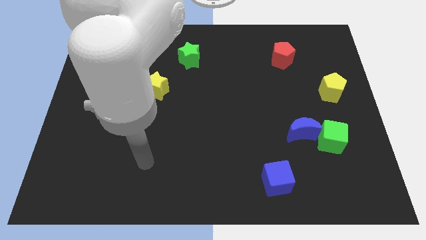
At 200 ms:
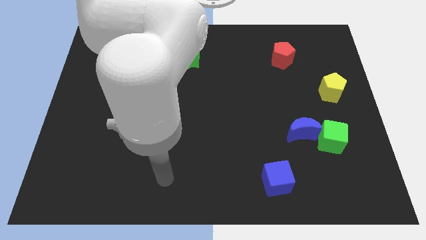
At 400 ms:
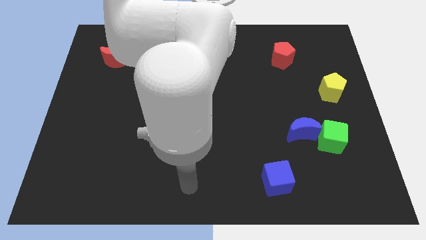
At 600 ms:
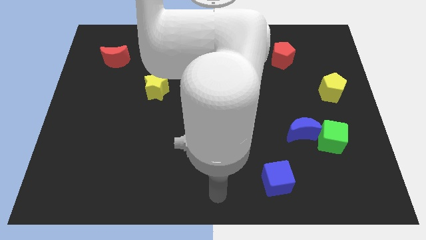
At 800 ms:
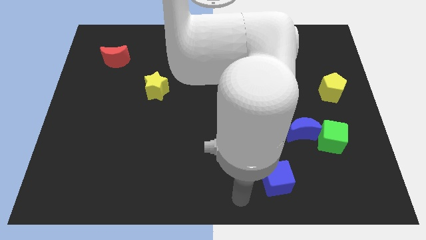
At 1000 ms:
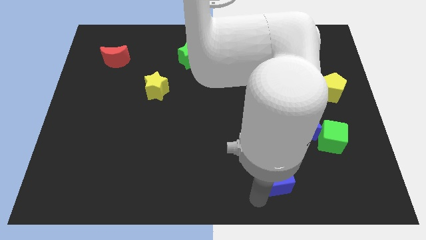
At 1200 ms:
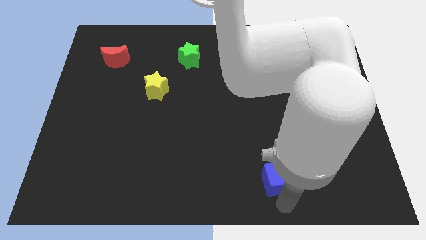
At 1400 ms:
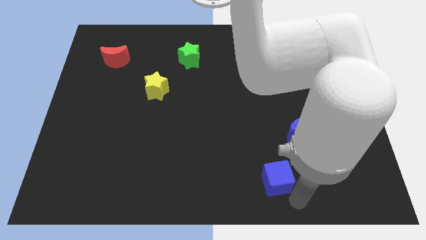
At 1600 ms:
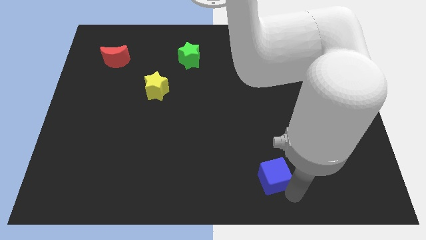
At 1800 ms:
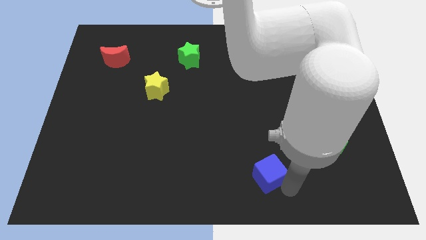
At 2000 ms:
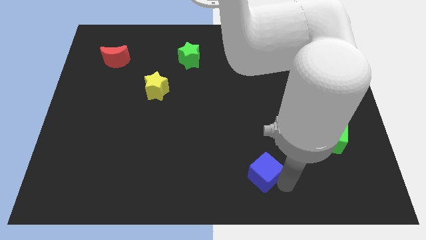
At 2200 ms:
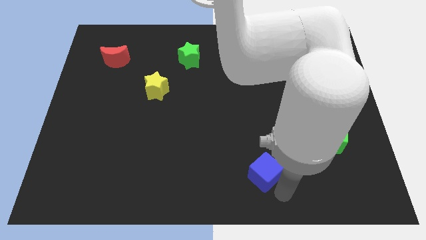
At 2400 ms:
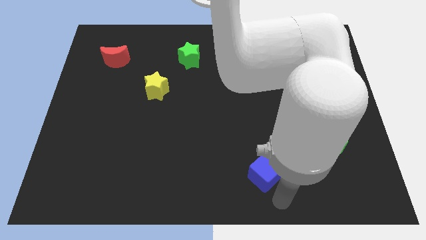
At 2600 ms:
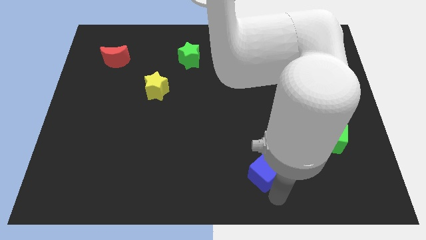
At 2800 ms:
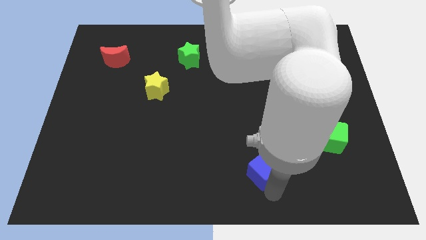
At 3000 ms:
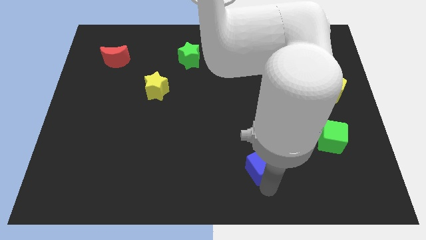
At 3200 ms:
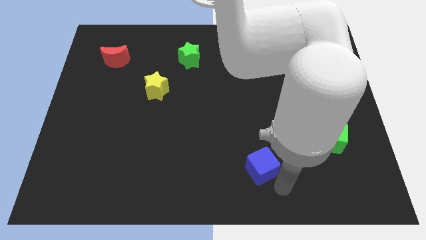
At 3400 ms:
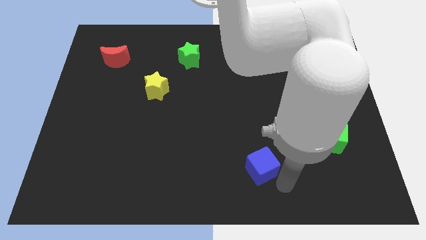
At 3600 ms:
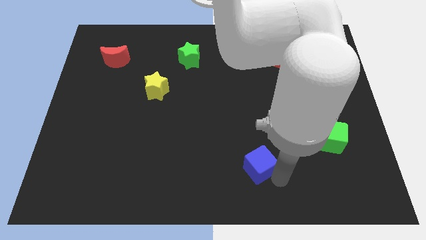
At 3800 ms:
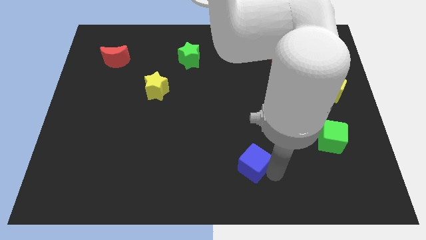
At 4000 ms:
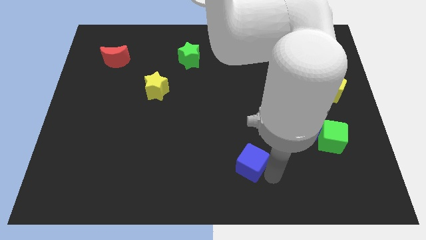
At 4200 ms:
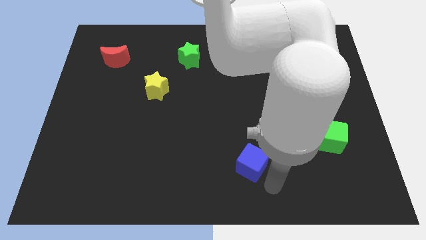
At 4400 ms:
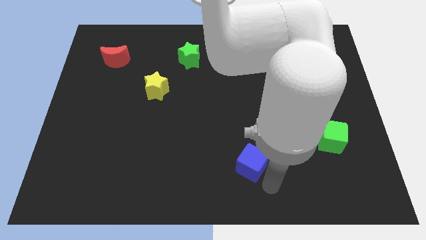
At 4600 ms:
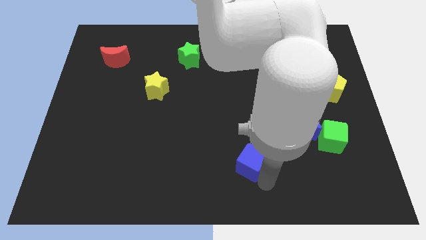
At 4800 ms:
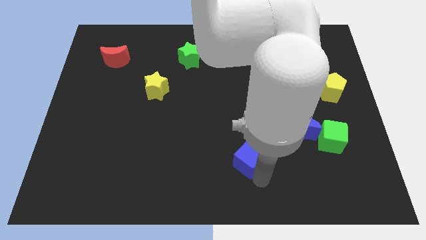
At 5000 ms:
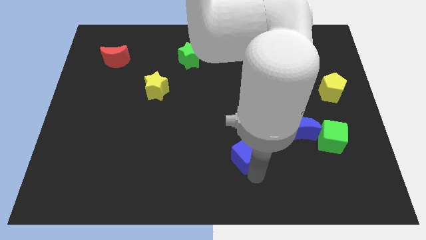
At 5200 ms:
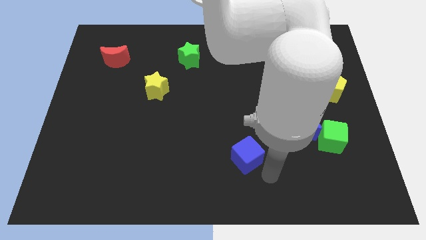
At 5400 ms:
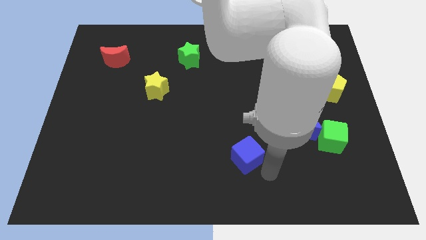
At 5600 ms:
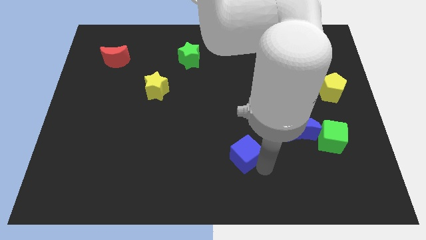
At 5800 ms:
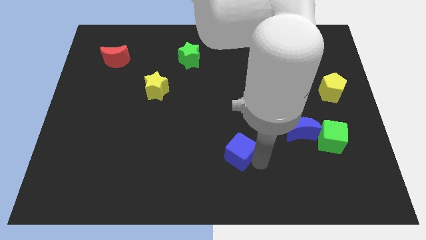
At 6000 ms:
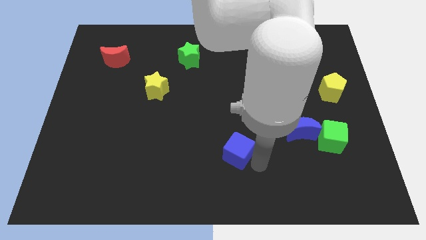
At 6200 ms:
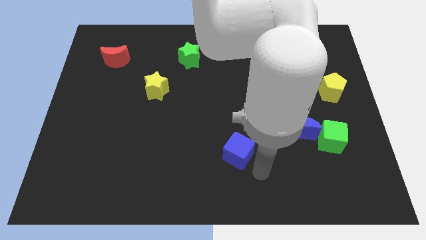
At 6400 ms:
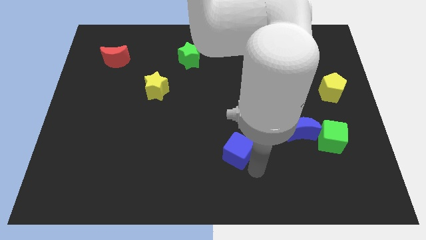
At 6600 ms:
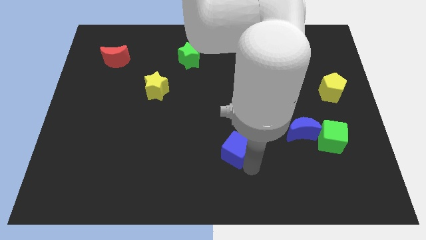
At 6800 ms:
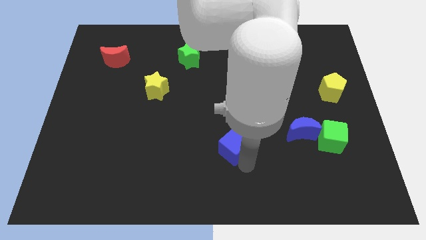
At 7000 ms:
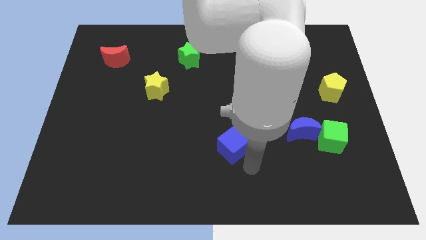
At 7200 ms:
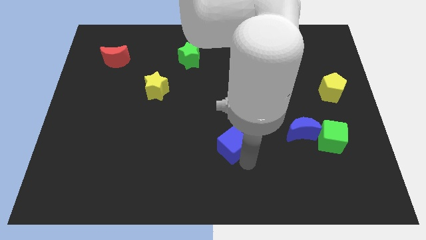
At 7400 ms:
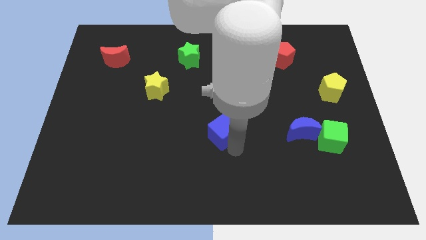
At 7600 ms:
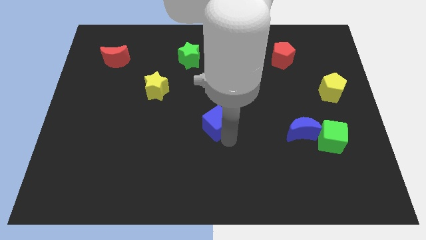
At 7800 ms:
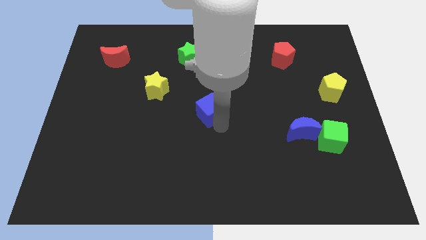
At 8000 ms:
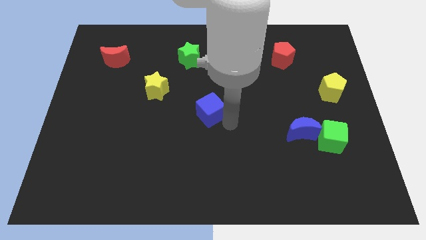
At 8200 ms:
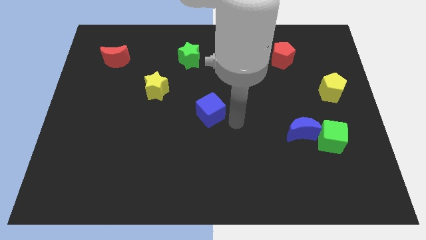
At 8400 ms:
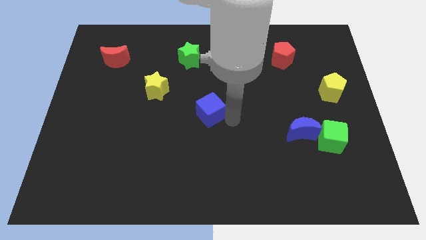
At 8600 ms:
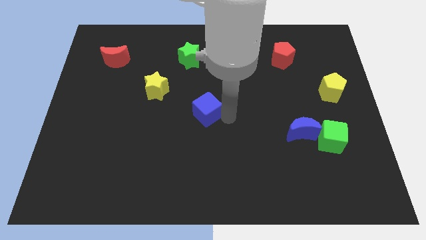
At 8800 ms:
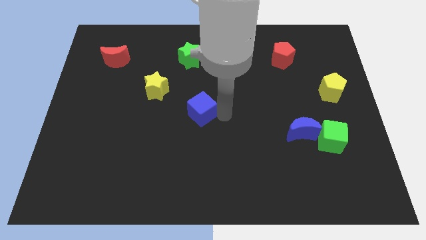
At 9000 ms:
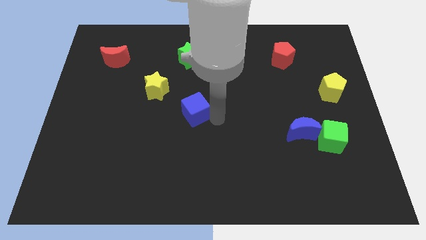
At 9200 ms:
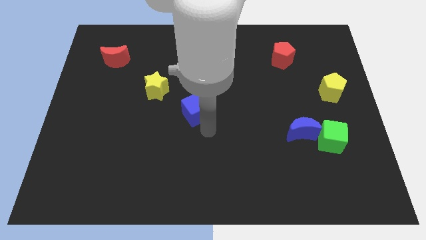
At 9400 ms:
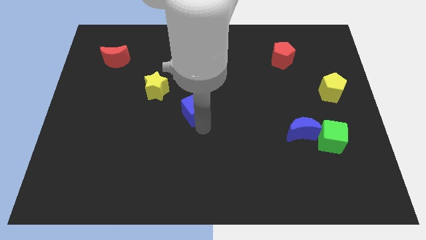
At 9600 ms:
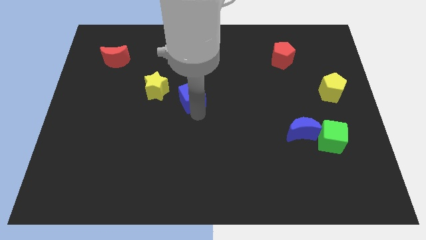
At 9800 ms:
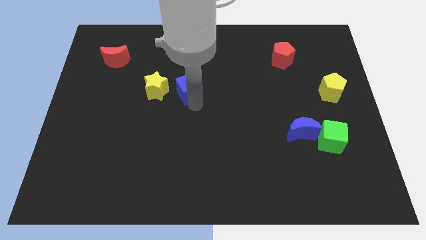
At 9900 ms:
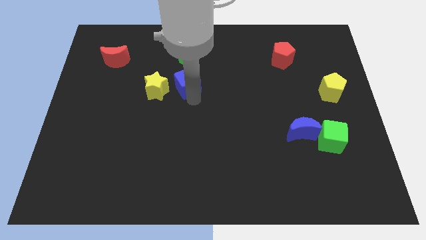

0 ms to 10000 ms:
put the blue cube to the top right side of the yellow star

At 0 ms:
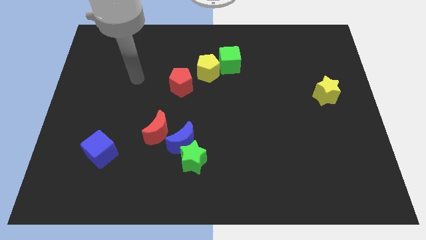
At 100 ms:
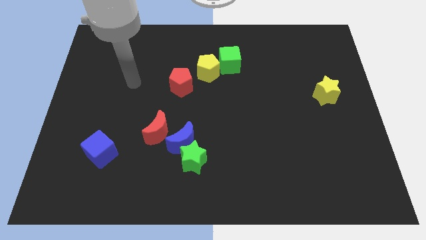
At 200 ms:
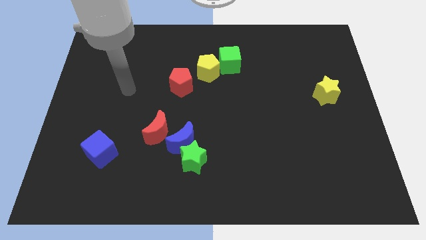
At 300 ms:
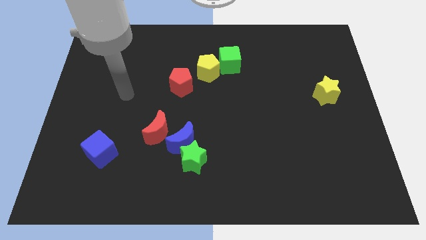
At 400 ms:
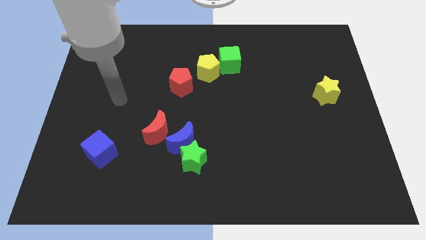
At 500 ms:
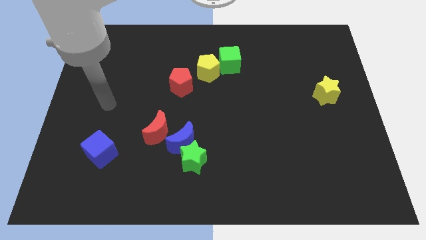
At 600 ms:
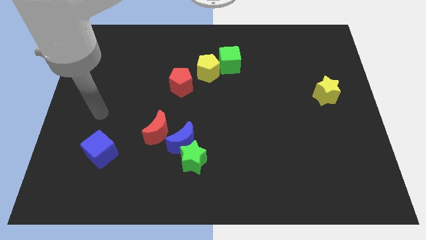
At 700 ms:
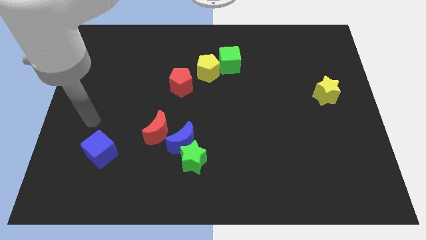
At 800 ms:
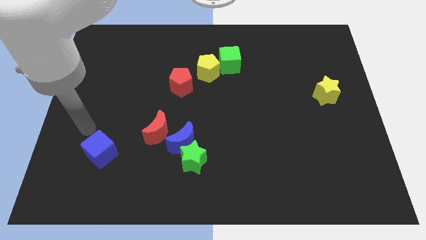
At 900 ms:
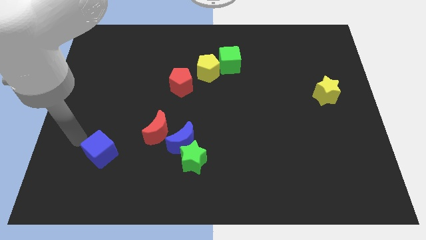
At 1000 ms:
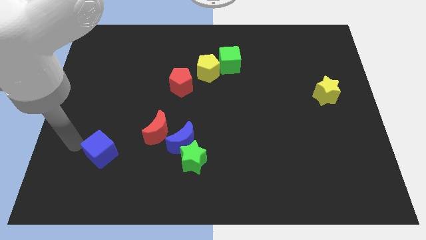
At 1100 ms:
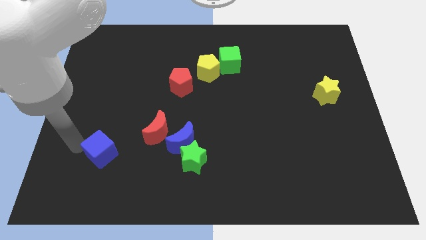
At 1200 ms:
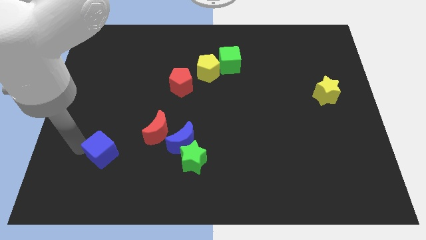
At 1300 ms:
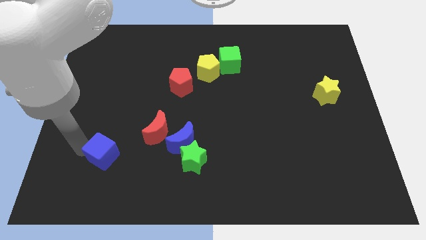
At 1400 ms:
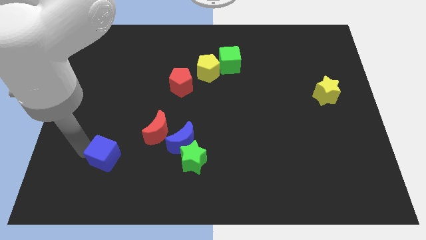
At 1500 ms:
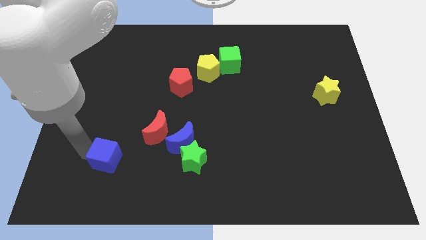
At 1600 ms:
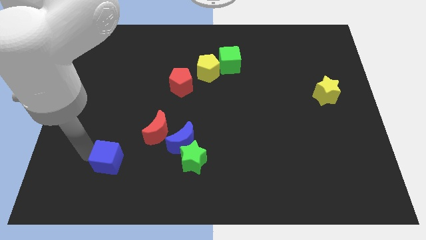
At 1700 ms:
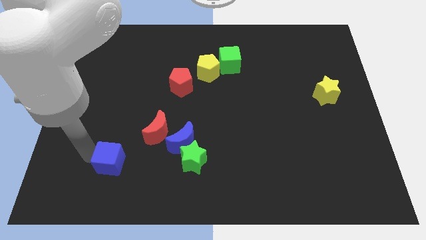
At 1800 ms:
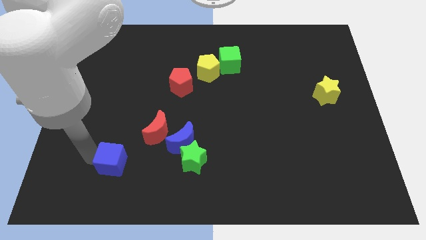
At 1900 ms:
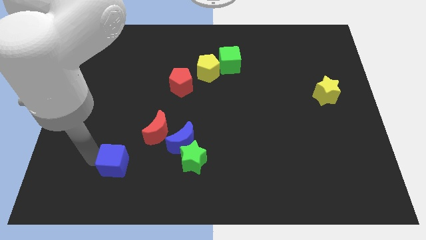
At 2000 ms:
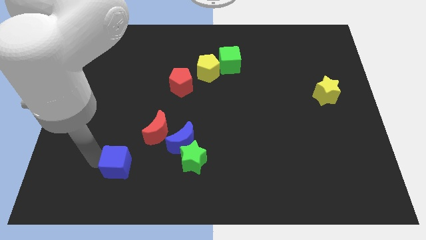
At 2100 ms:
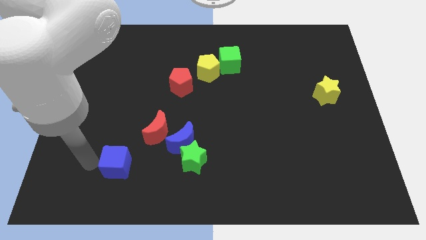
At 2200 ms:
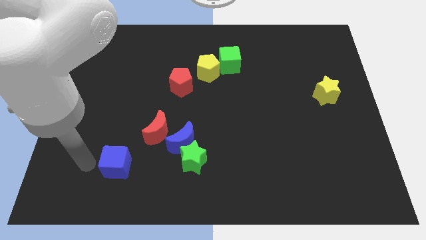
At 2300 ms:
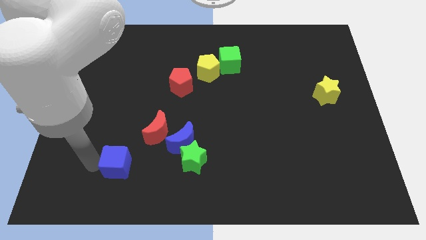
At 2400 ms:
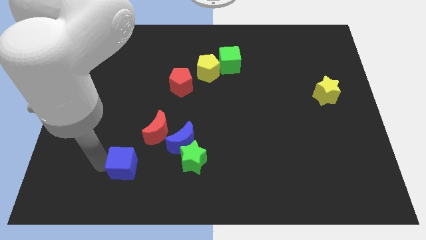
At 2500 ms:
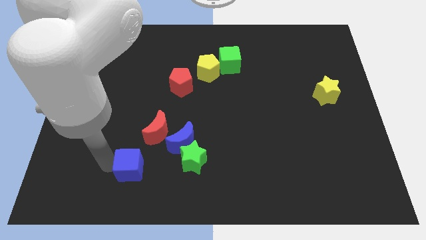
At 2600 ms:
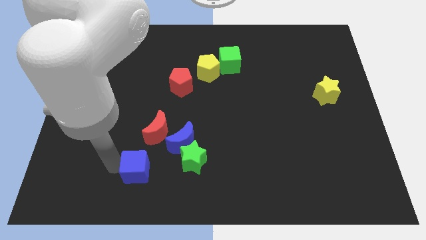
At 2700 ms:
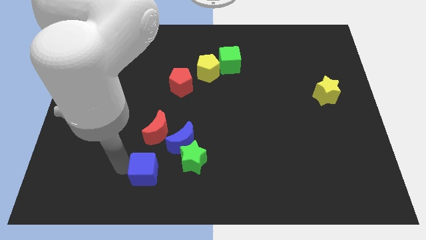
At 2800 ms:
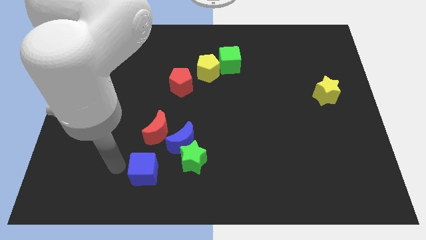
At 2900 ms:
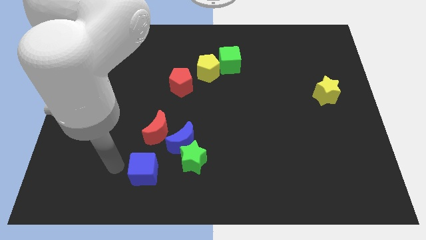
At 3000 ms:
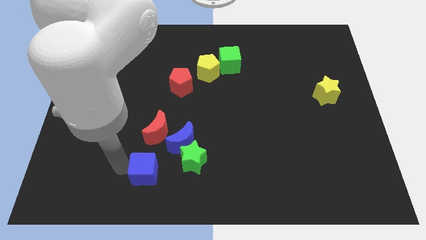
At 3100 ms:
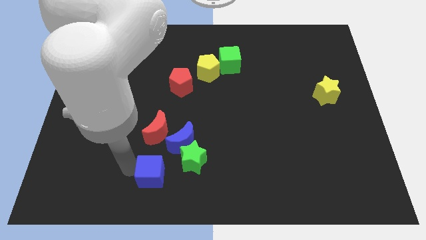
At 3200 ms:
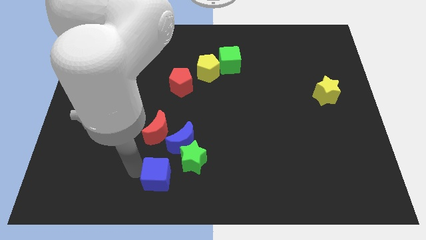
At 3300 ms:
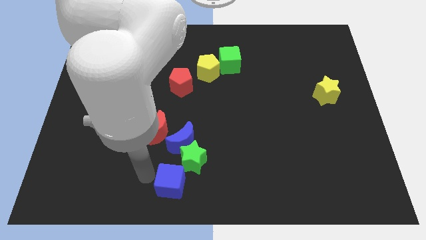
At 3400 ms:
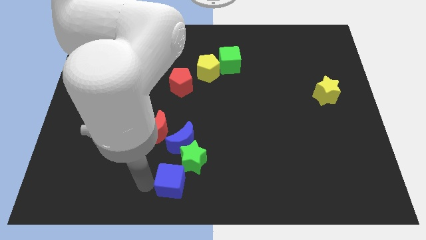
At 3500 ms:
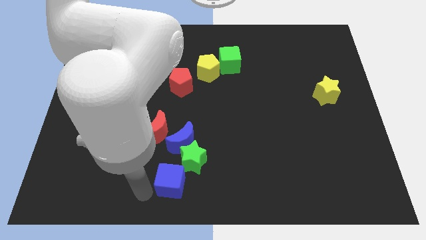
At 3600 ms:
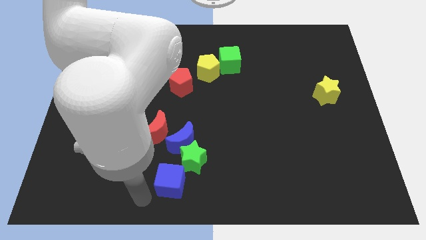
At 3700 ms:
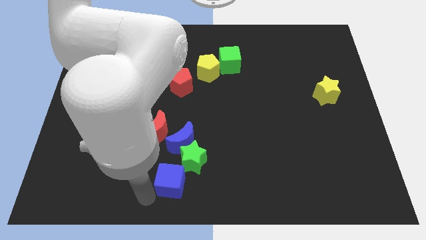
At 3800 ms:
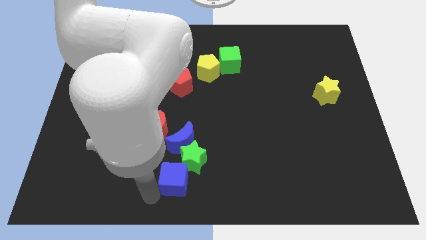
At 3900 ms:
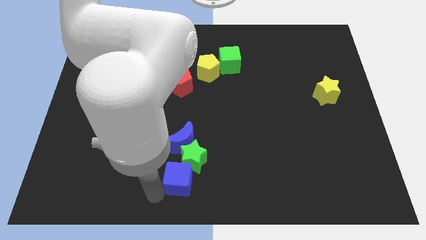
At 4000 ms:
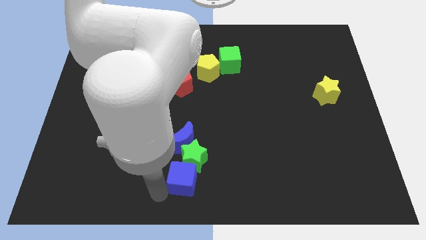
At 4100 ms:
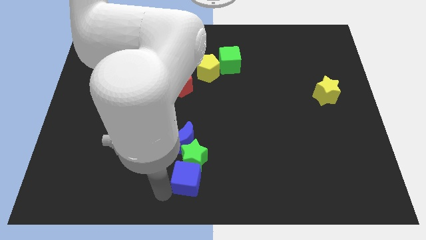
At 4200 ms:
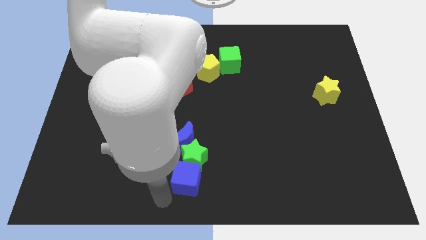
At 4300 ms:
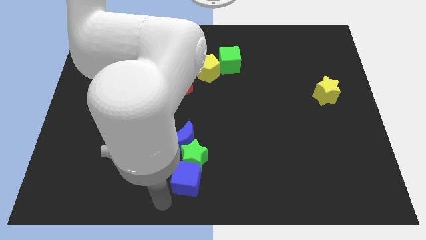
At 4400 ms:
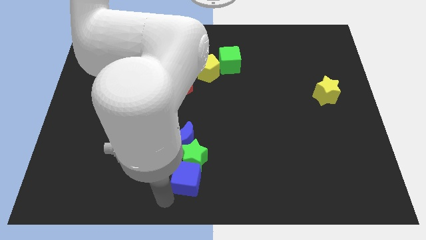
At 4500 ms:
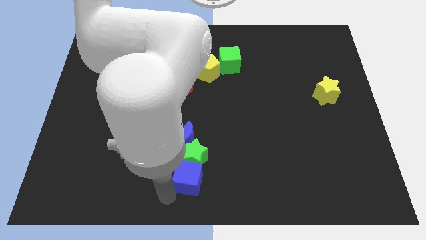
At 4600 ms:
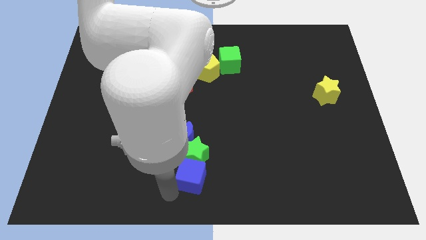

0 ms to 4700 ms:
move the blue cube diagonally down and to the right of the blue moon
